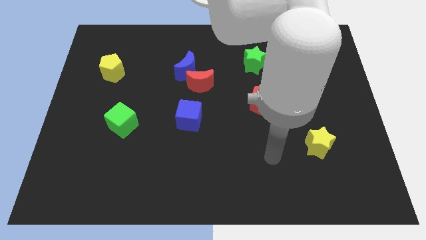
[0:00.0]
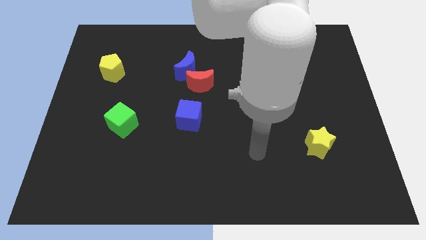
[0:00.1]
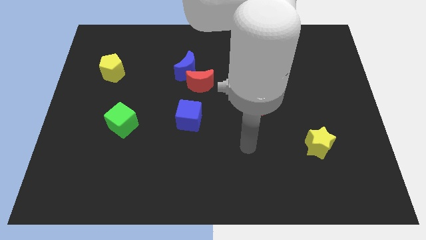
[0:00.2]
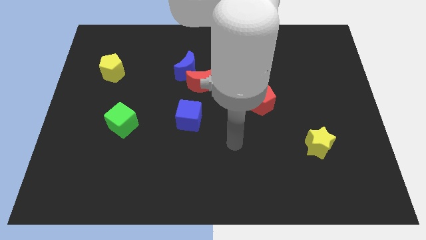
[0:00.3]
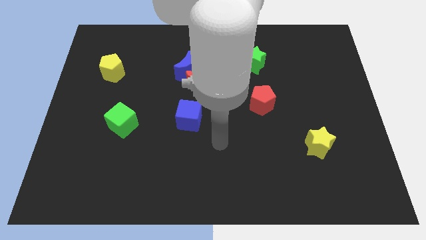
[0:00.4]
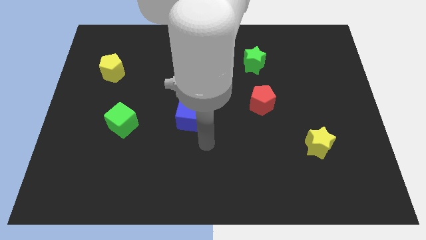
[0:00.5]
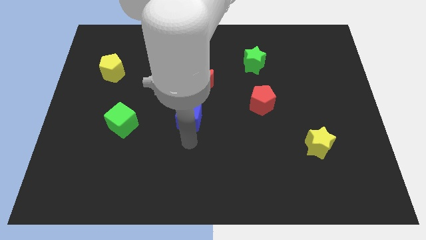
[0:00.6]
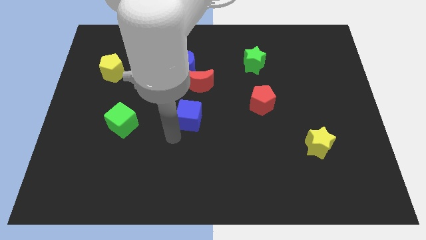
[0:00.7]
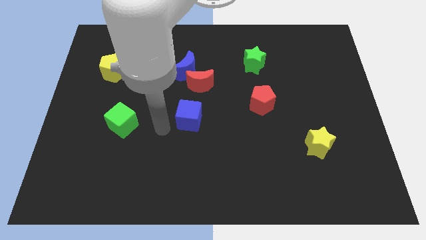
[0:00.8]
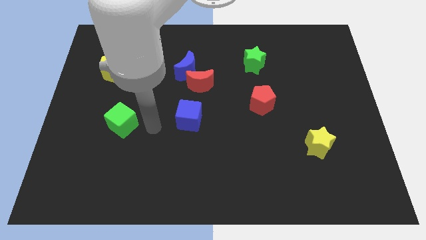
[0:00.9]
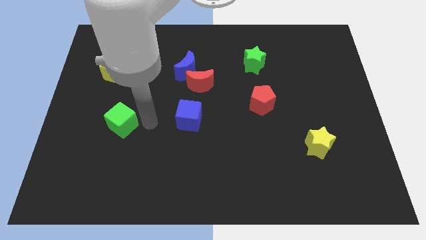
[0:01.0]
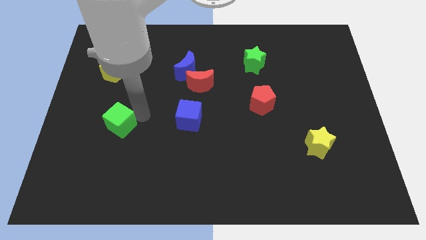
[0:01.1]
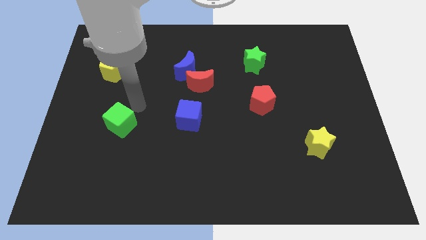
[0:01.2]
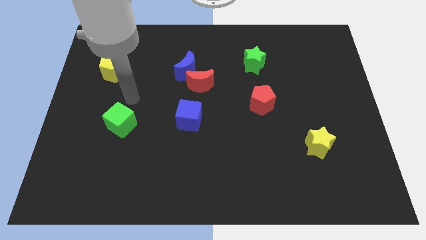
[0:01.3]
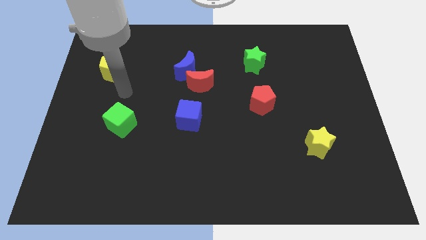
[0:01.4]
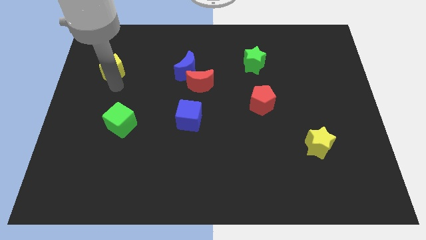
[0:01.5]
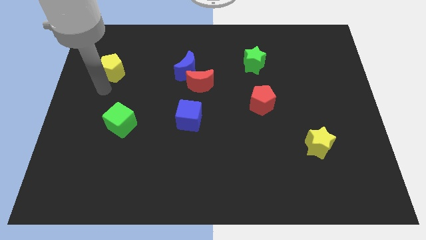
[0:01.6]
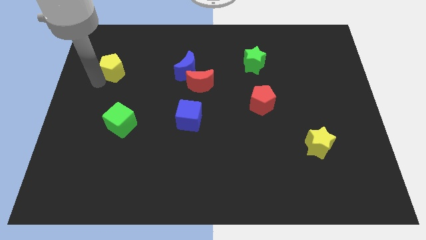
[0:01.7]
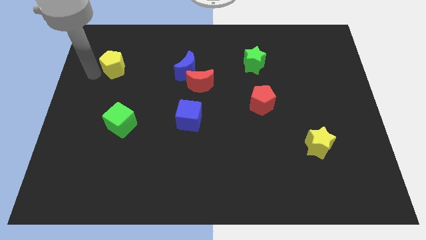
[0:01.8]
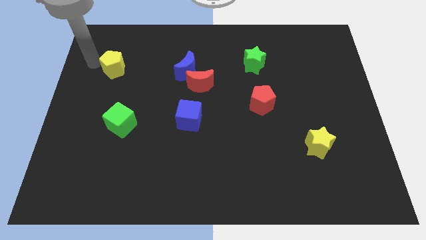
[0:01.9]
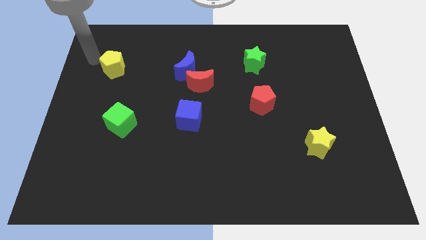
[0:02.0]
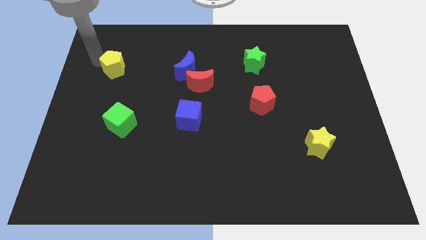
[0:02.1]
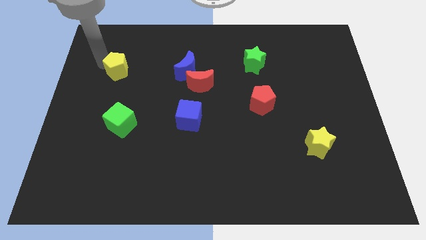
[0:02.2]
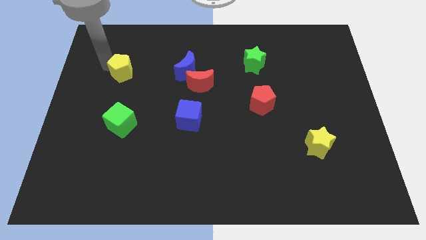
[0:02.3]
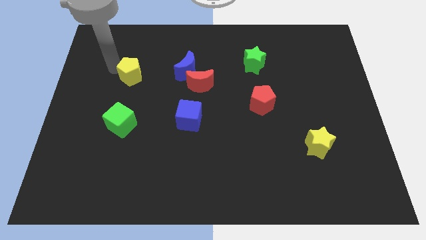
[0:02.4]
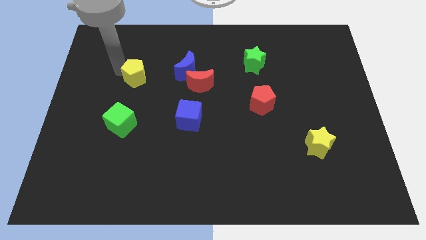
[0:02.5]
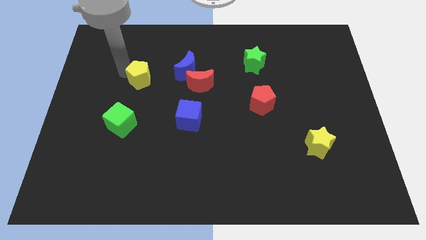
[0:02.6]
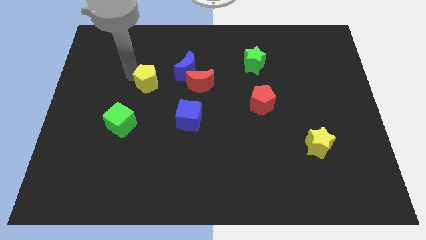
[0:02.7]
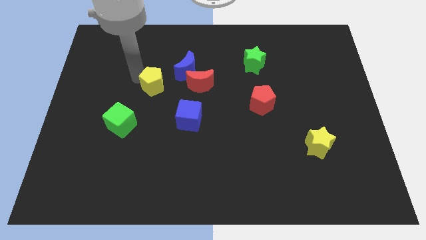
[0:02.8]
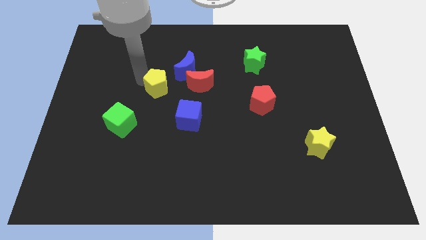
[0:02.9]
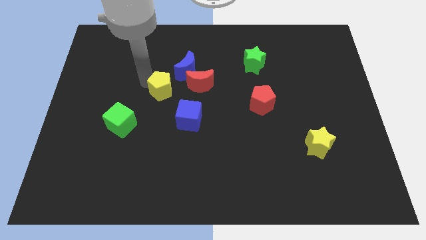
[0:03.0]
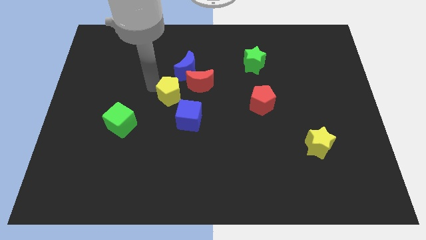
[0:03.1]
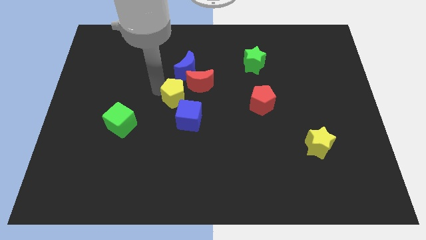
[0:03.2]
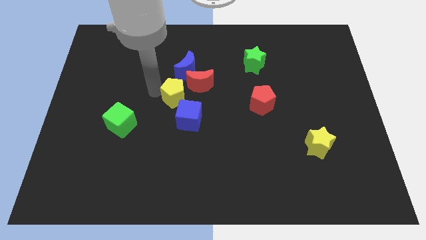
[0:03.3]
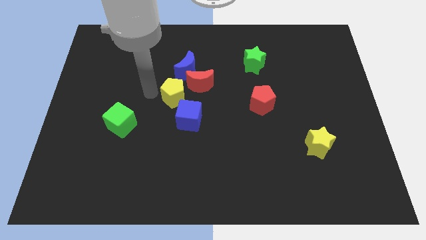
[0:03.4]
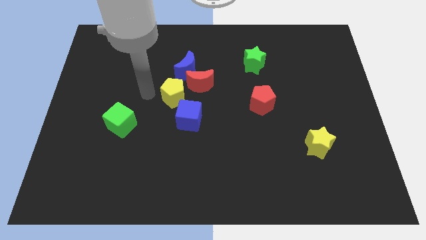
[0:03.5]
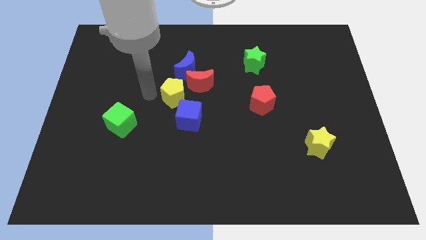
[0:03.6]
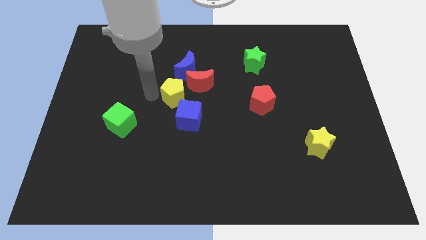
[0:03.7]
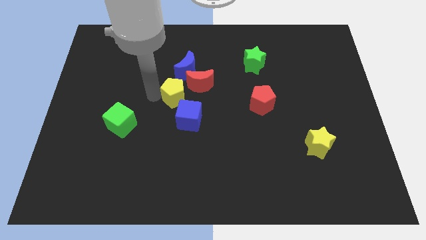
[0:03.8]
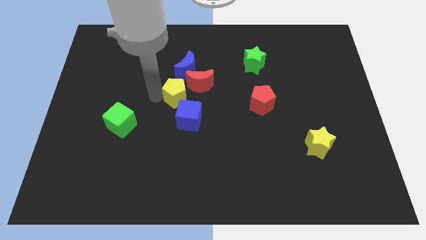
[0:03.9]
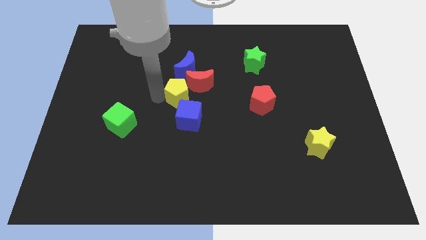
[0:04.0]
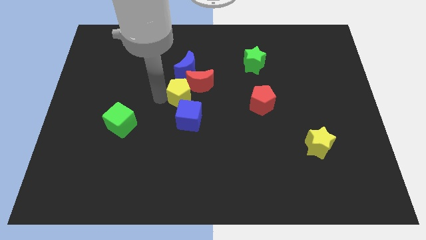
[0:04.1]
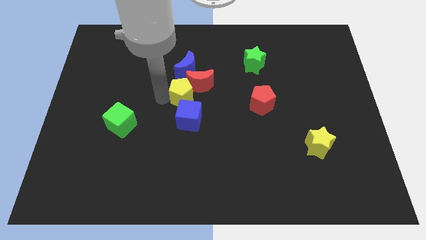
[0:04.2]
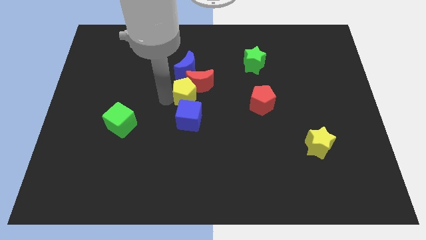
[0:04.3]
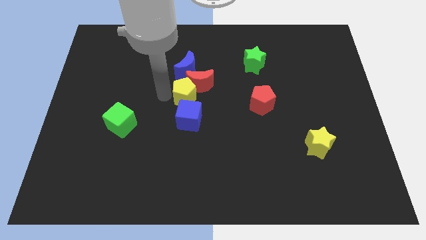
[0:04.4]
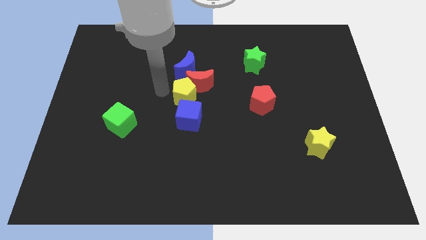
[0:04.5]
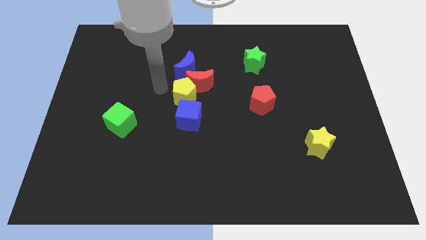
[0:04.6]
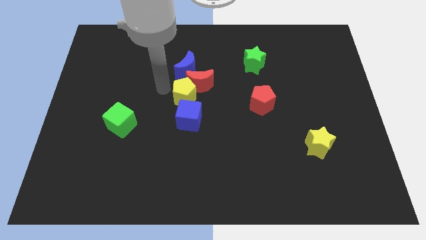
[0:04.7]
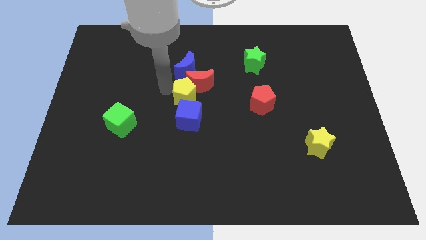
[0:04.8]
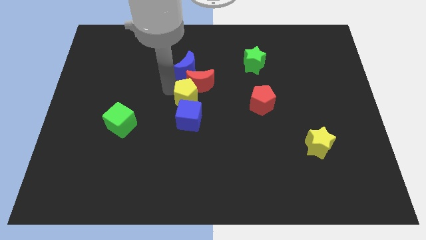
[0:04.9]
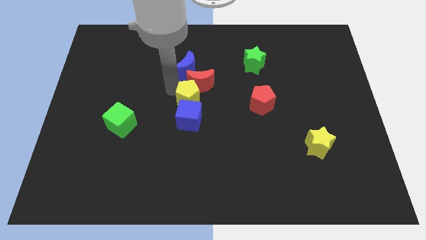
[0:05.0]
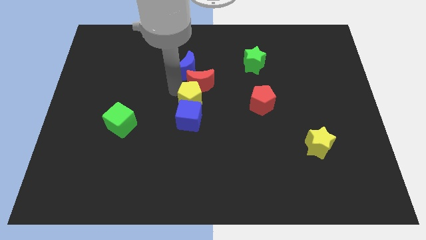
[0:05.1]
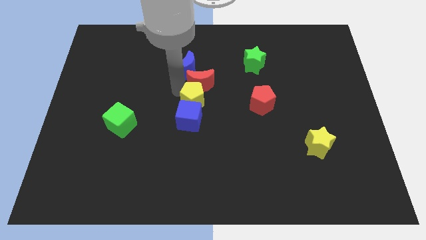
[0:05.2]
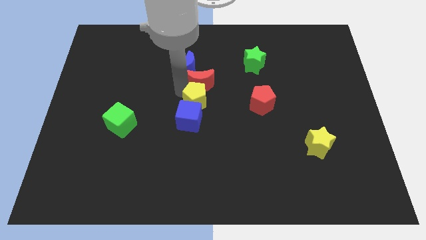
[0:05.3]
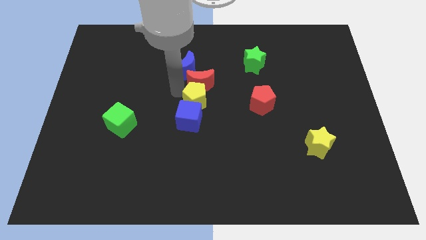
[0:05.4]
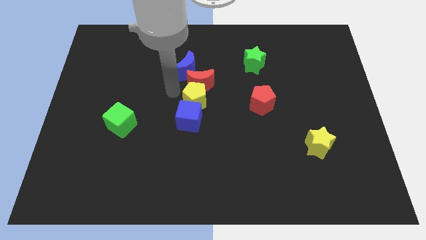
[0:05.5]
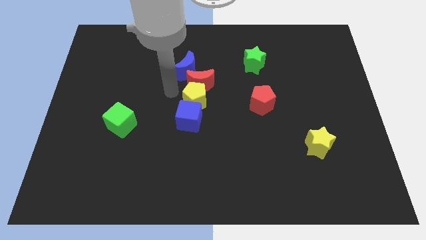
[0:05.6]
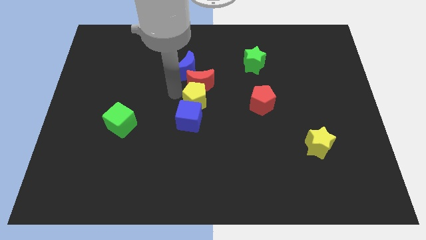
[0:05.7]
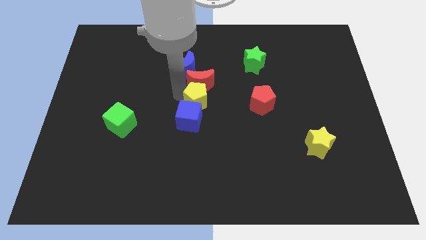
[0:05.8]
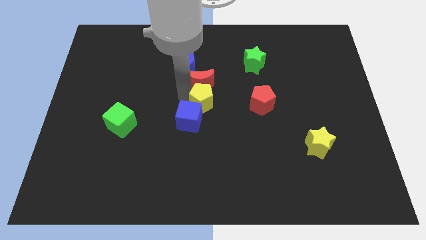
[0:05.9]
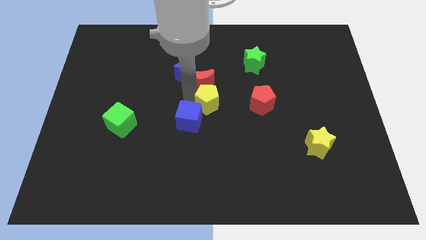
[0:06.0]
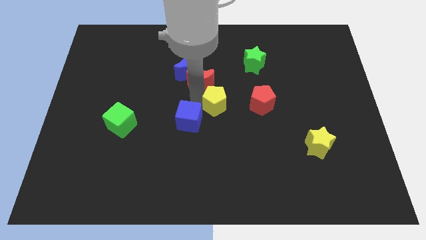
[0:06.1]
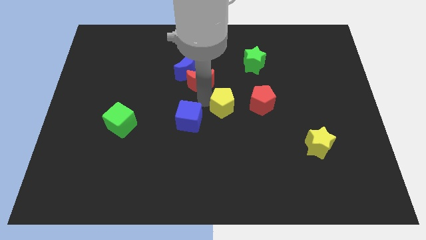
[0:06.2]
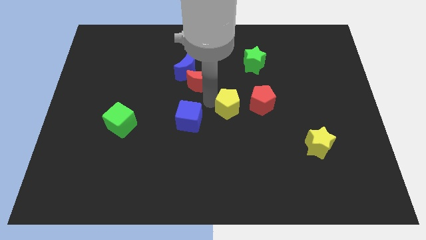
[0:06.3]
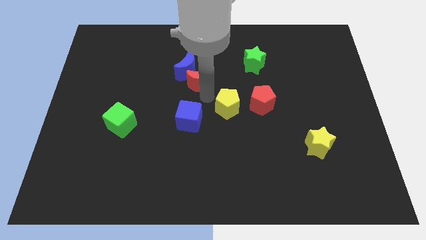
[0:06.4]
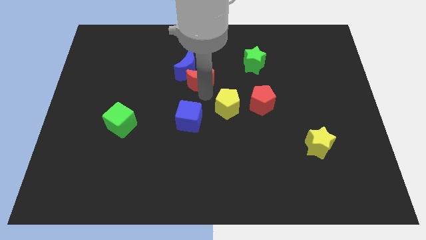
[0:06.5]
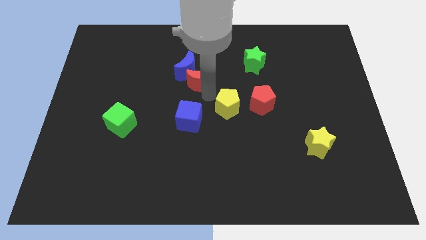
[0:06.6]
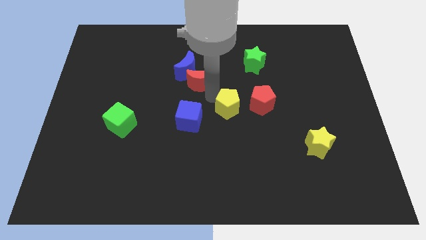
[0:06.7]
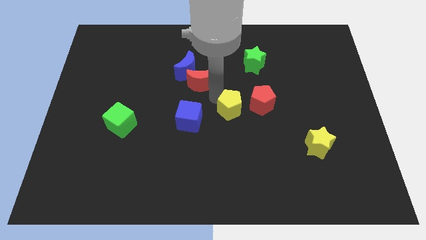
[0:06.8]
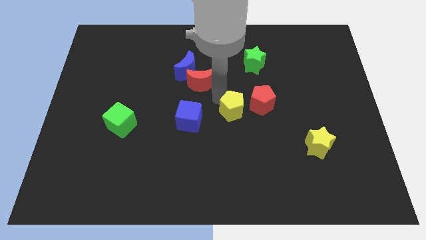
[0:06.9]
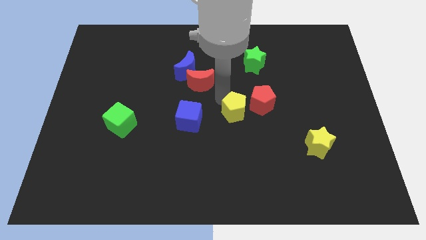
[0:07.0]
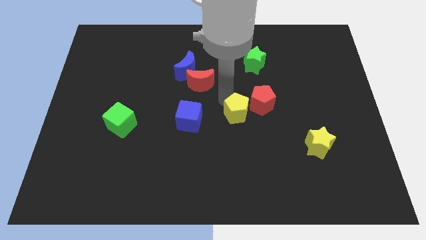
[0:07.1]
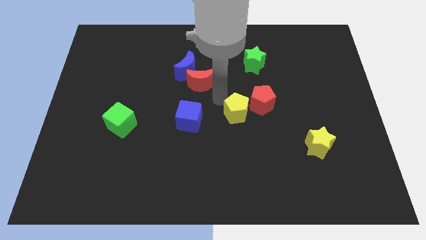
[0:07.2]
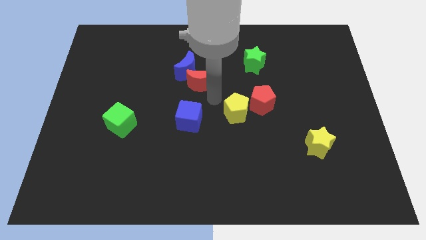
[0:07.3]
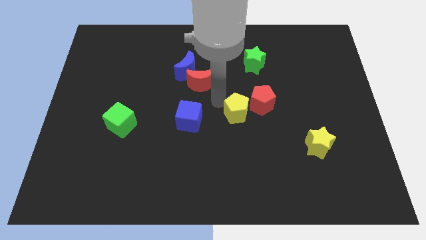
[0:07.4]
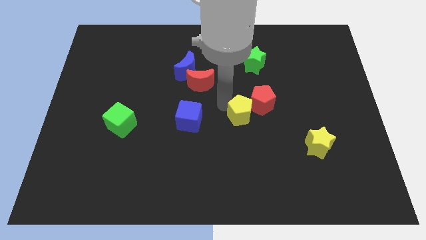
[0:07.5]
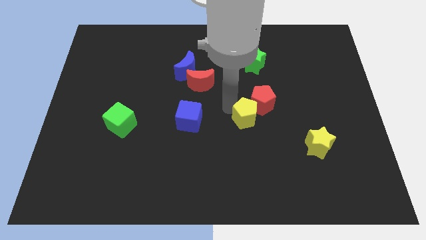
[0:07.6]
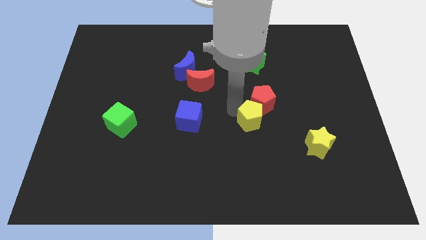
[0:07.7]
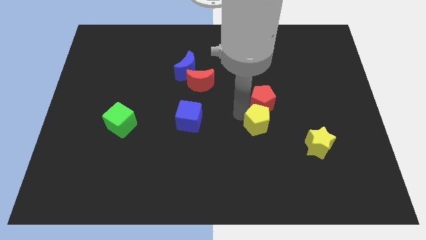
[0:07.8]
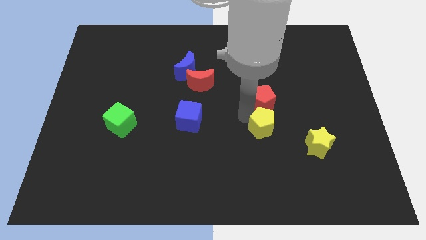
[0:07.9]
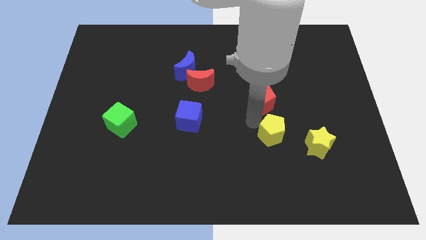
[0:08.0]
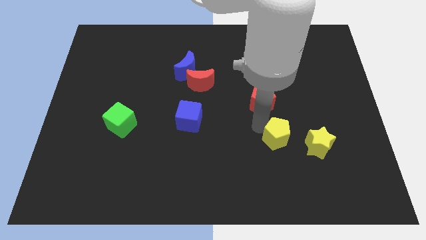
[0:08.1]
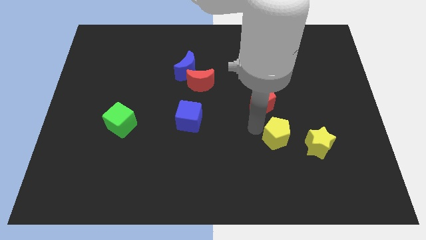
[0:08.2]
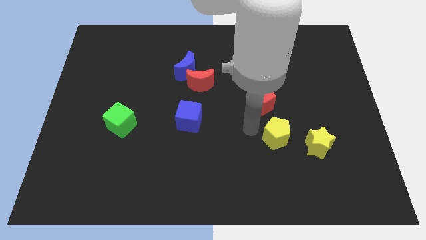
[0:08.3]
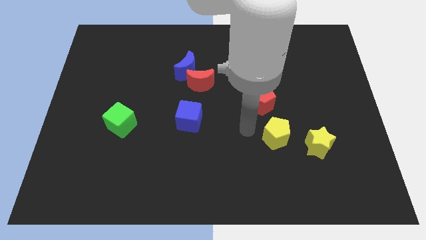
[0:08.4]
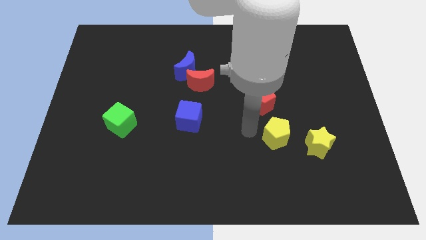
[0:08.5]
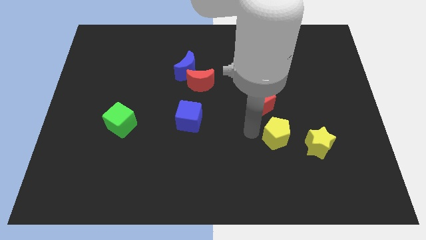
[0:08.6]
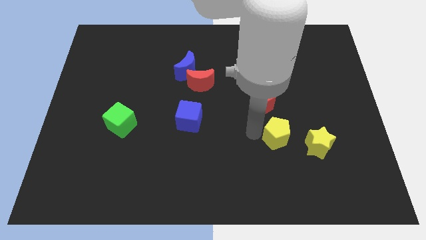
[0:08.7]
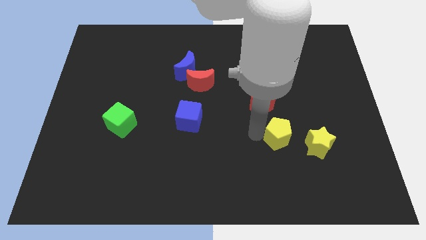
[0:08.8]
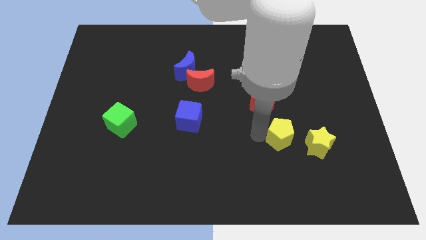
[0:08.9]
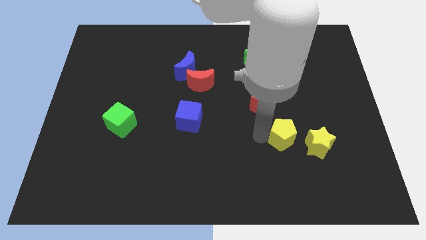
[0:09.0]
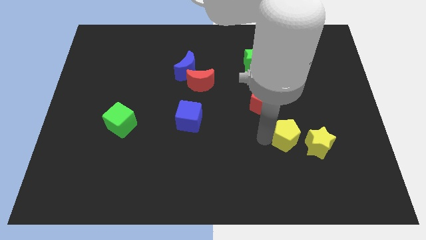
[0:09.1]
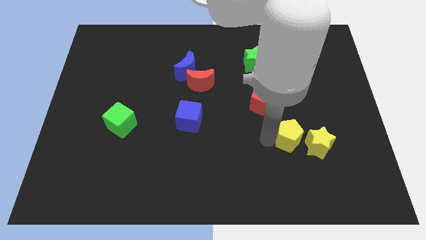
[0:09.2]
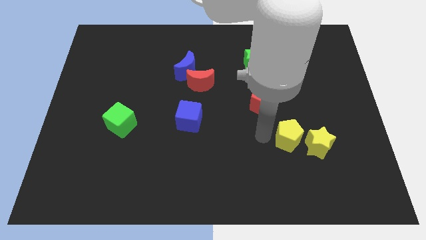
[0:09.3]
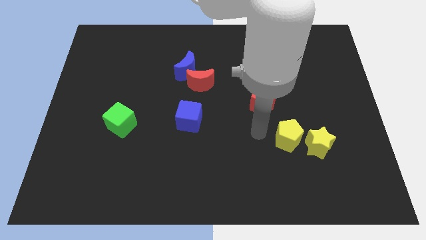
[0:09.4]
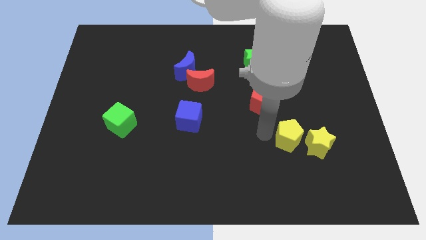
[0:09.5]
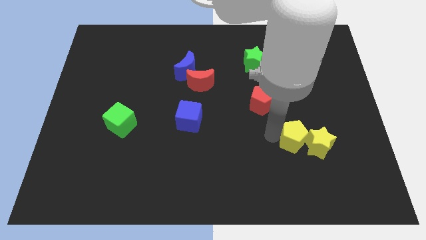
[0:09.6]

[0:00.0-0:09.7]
put the yellow pentagon to the yellow star
